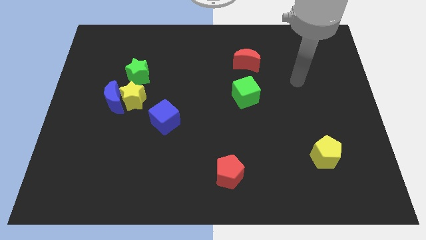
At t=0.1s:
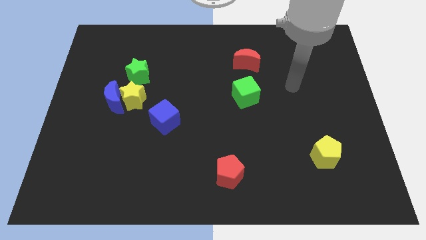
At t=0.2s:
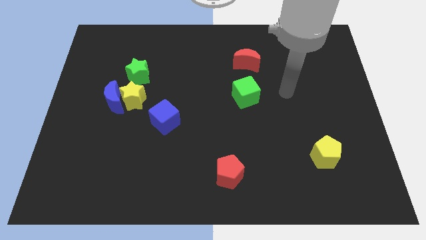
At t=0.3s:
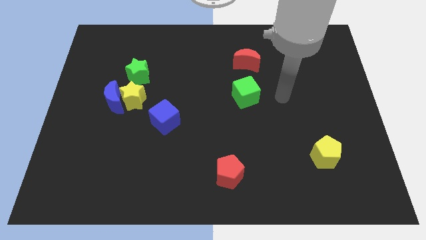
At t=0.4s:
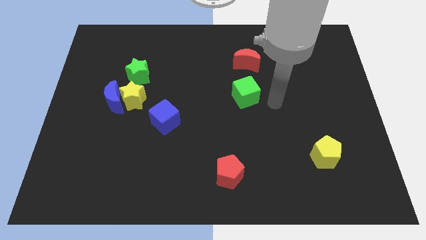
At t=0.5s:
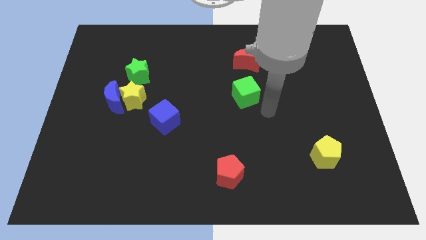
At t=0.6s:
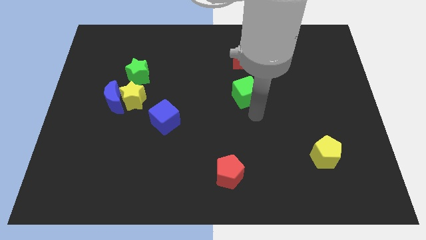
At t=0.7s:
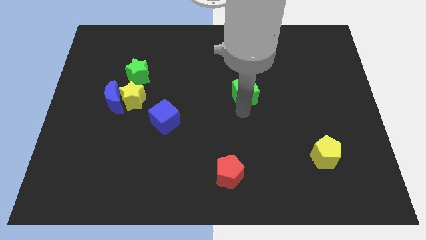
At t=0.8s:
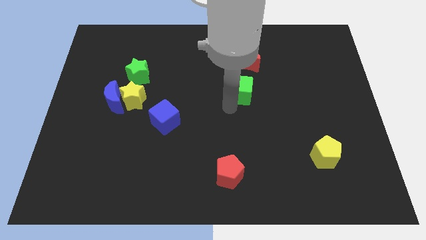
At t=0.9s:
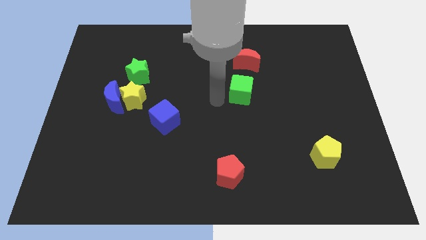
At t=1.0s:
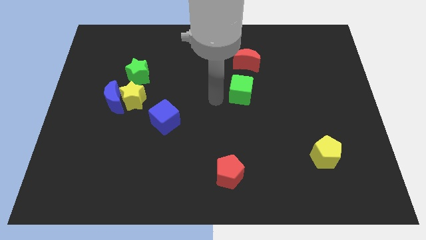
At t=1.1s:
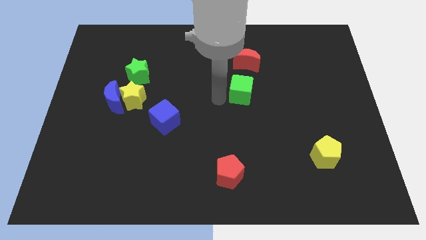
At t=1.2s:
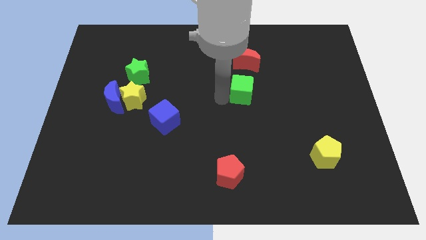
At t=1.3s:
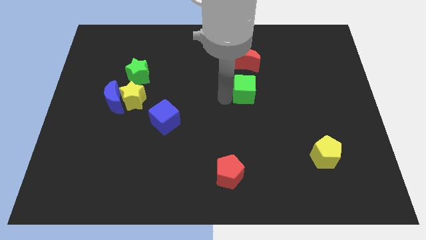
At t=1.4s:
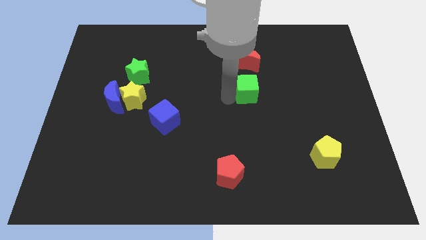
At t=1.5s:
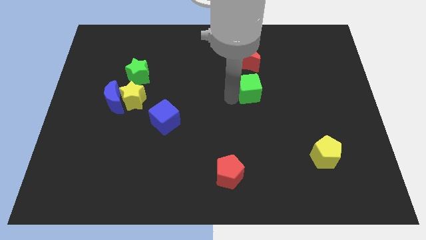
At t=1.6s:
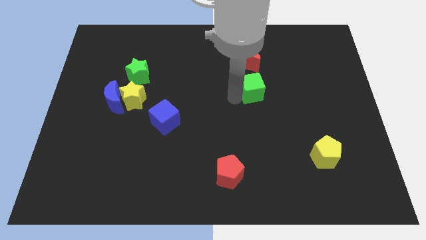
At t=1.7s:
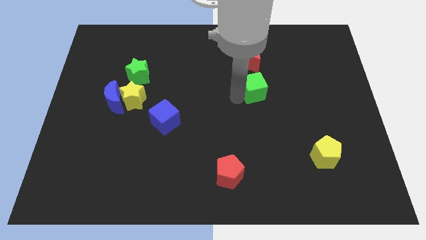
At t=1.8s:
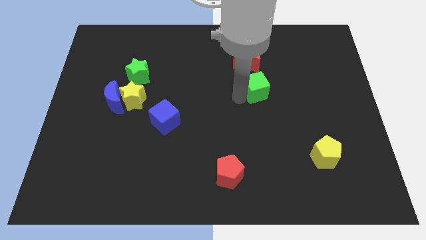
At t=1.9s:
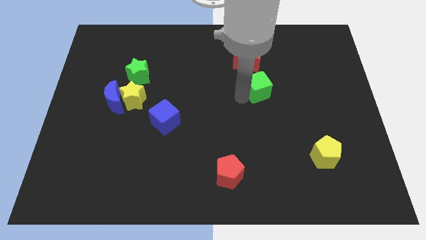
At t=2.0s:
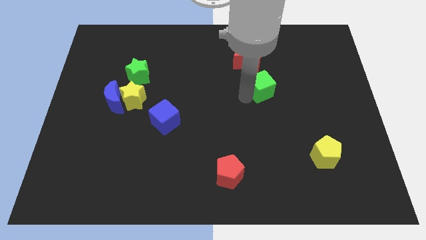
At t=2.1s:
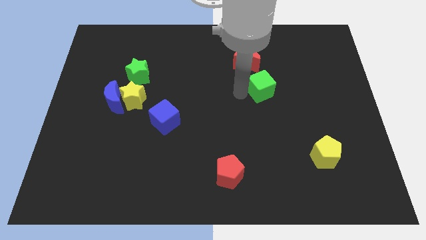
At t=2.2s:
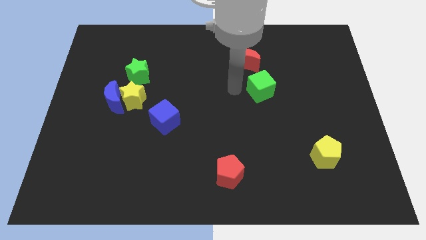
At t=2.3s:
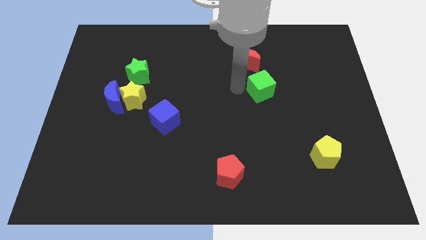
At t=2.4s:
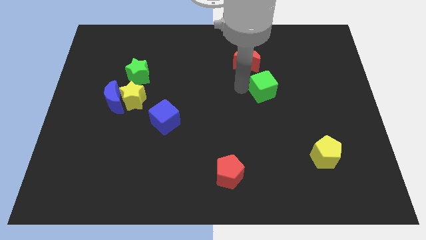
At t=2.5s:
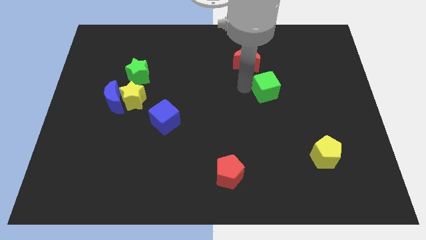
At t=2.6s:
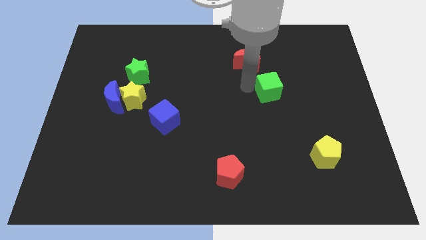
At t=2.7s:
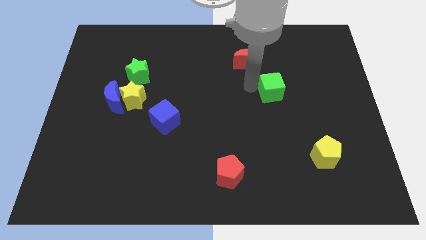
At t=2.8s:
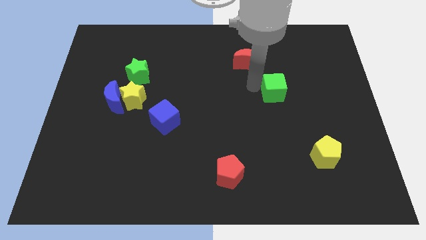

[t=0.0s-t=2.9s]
move the green cube a bit to the right

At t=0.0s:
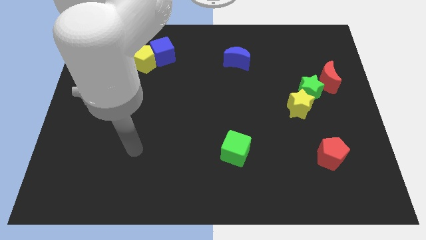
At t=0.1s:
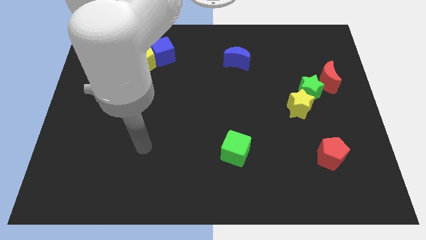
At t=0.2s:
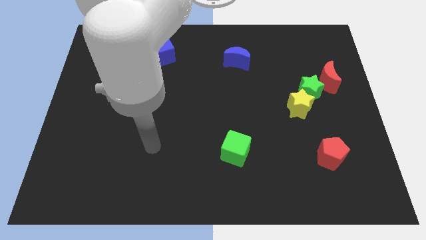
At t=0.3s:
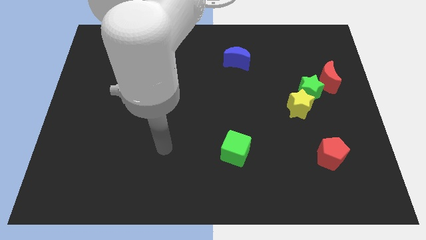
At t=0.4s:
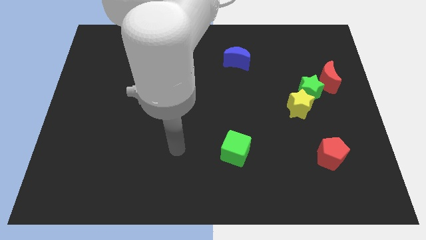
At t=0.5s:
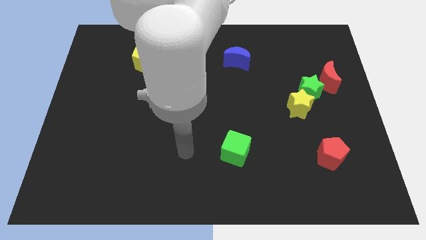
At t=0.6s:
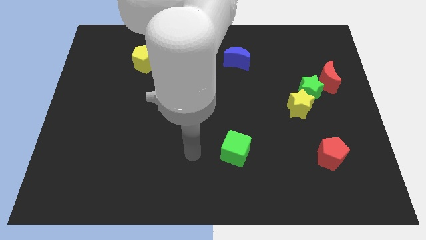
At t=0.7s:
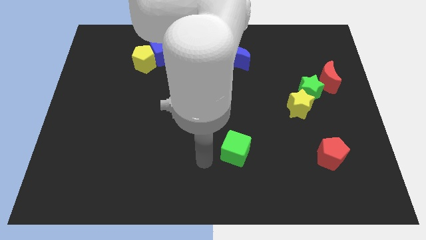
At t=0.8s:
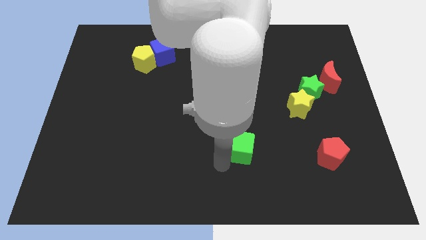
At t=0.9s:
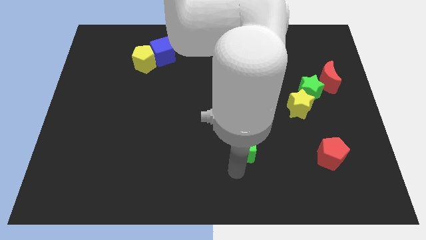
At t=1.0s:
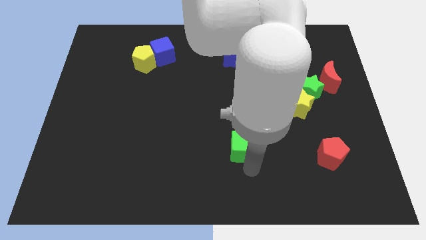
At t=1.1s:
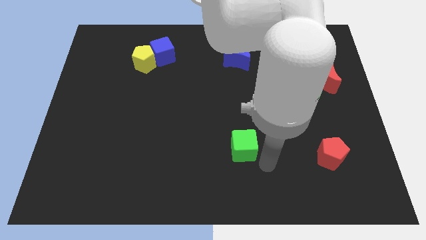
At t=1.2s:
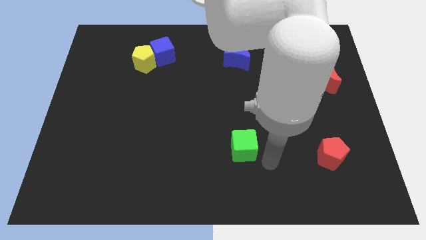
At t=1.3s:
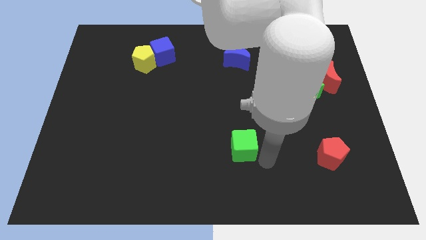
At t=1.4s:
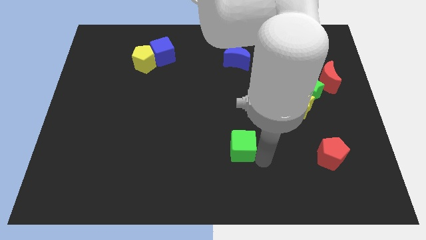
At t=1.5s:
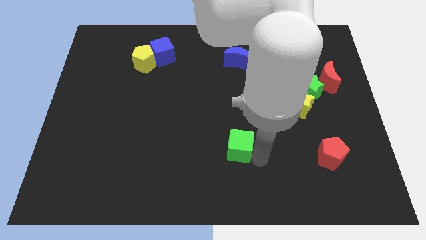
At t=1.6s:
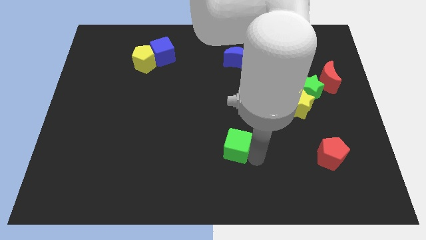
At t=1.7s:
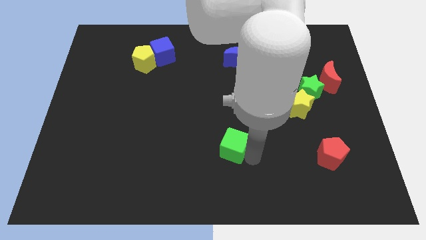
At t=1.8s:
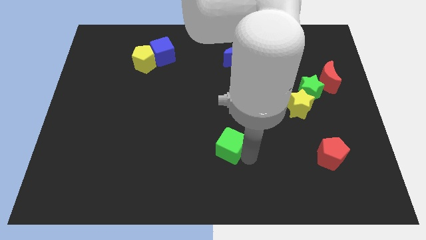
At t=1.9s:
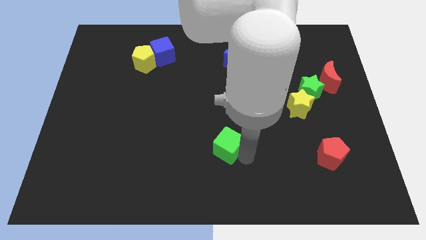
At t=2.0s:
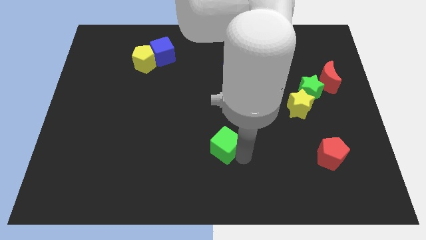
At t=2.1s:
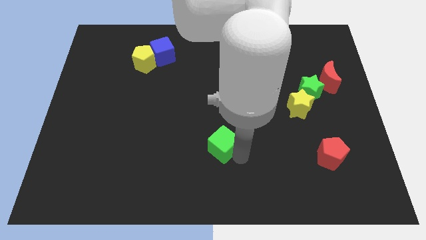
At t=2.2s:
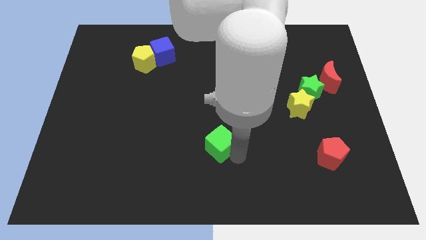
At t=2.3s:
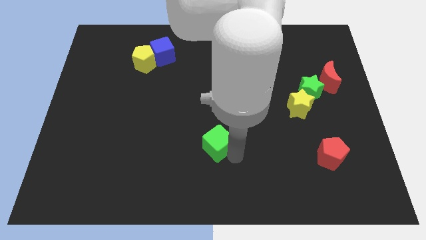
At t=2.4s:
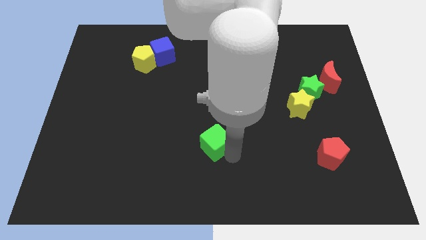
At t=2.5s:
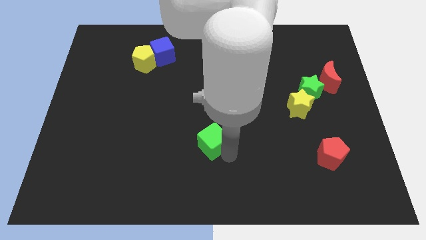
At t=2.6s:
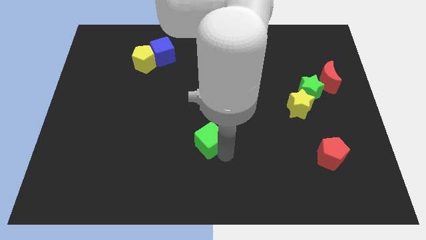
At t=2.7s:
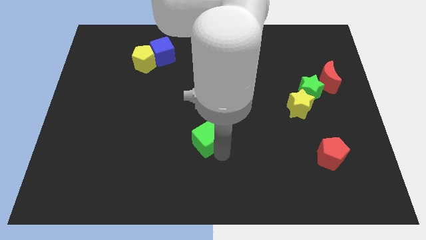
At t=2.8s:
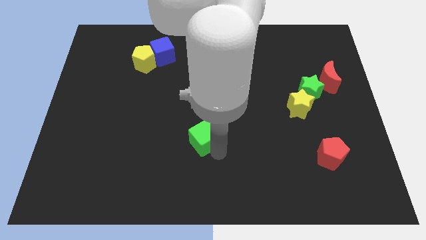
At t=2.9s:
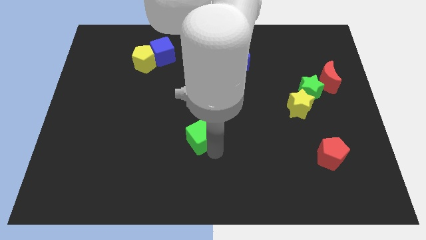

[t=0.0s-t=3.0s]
slightly move the green cube up and left

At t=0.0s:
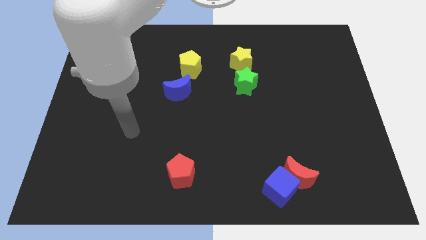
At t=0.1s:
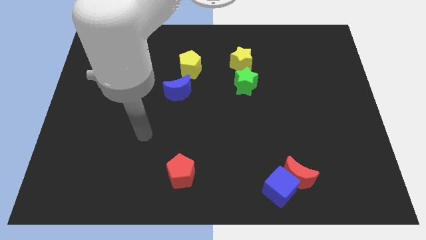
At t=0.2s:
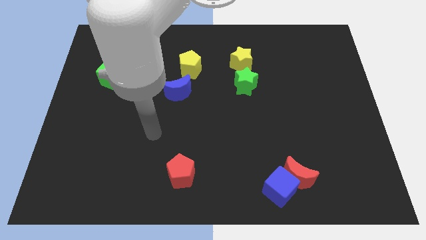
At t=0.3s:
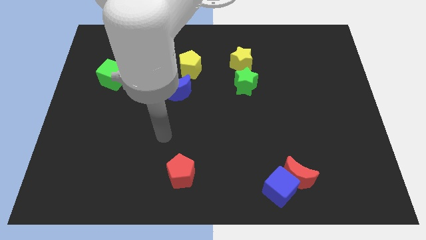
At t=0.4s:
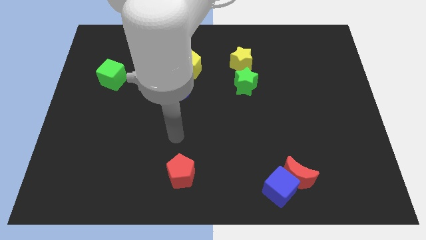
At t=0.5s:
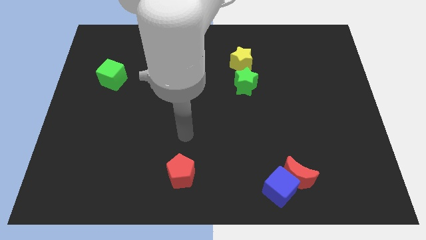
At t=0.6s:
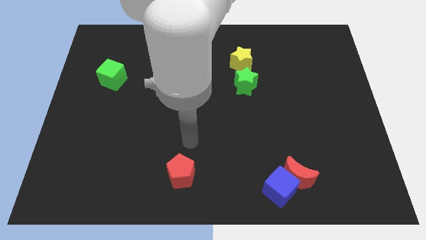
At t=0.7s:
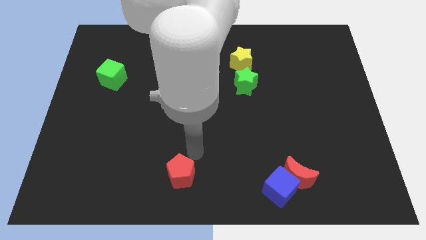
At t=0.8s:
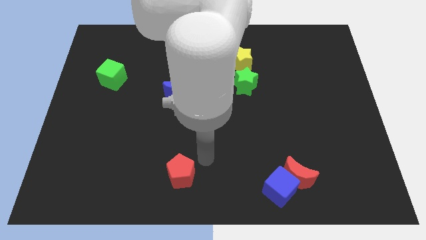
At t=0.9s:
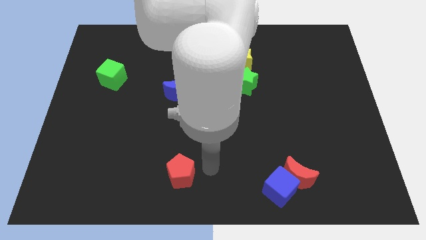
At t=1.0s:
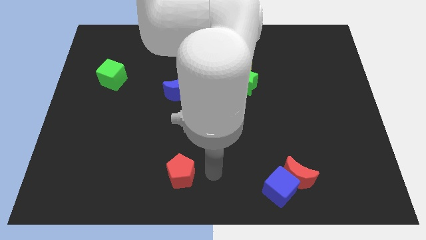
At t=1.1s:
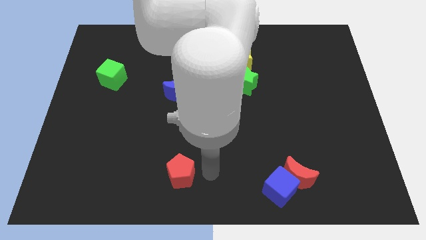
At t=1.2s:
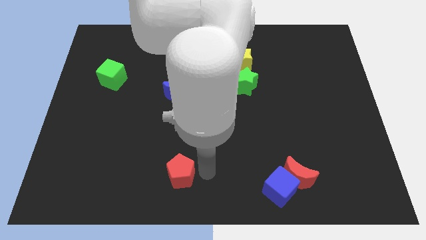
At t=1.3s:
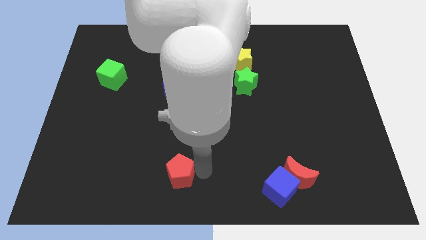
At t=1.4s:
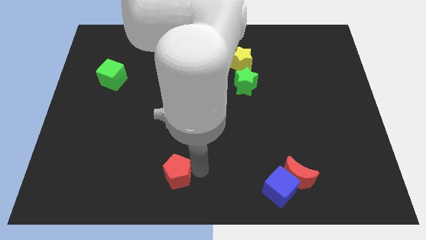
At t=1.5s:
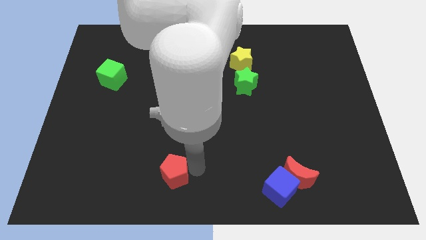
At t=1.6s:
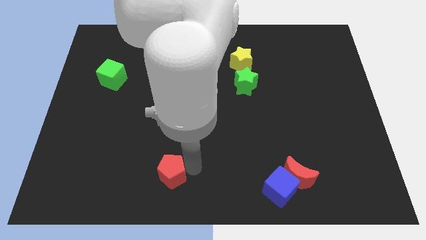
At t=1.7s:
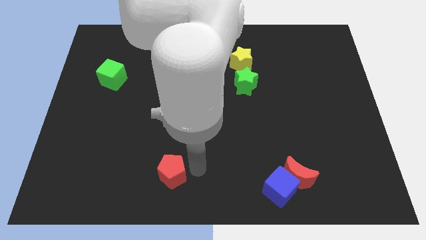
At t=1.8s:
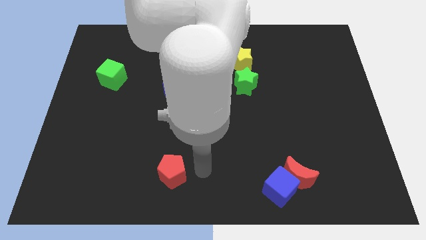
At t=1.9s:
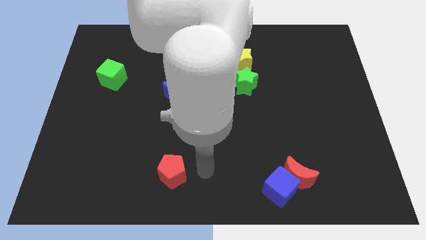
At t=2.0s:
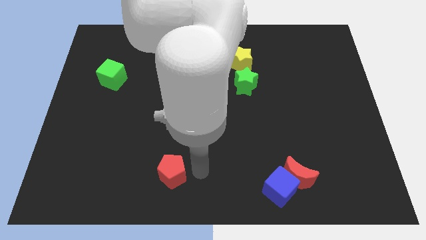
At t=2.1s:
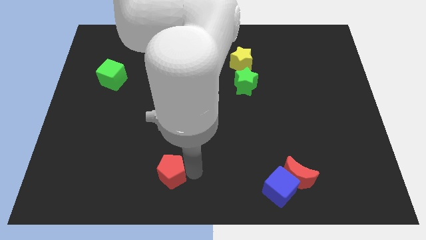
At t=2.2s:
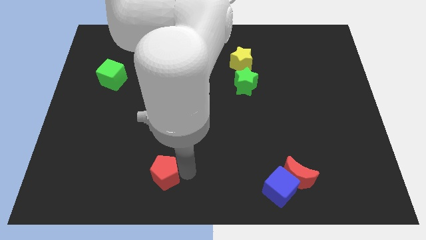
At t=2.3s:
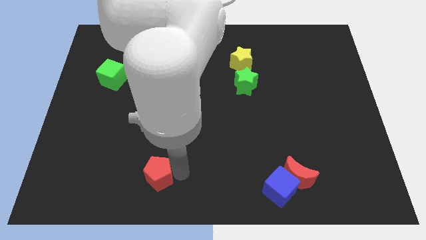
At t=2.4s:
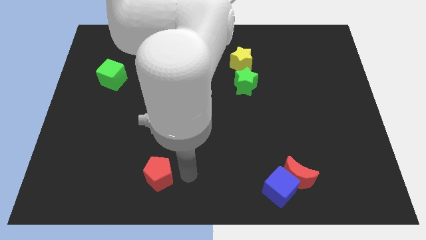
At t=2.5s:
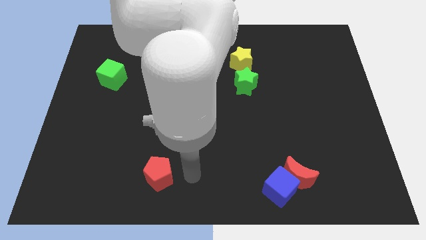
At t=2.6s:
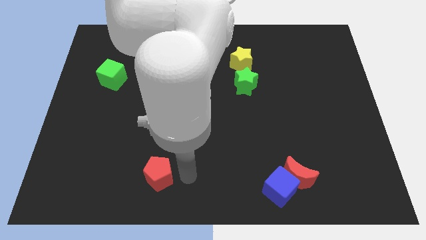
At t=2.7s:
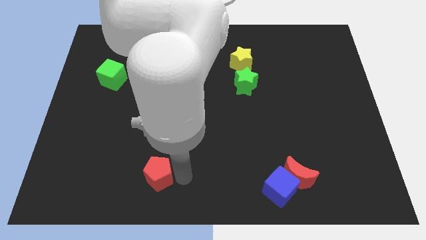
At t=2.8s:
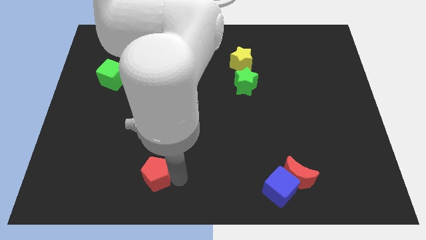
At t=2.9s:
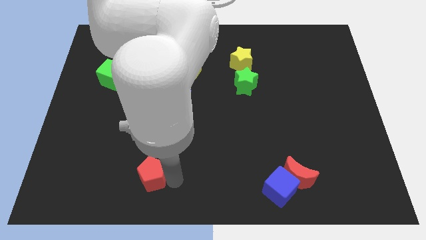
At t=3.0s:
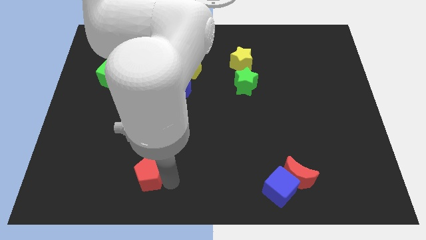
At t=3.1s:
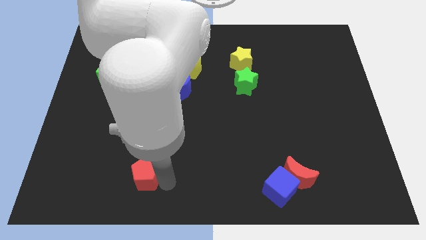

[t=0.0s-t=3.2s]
slightly move the red pentagon to the left
